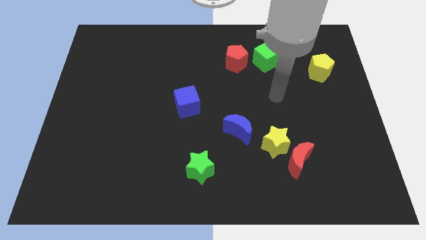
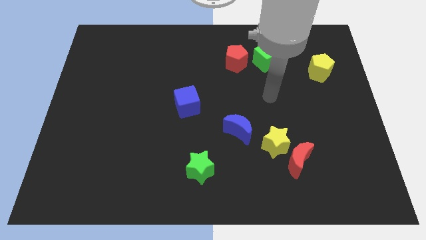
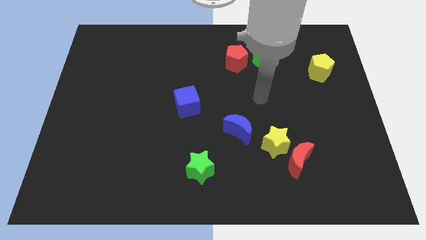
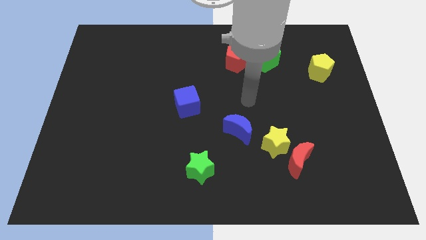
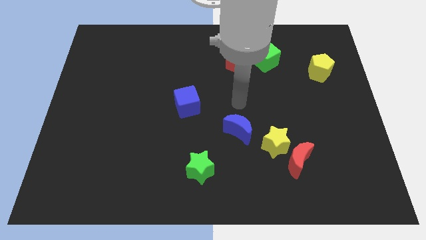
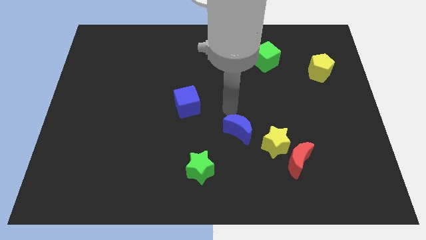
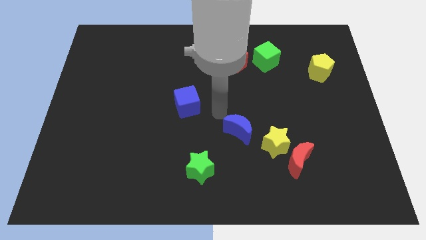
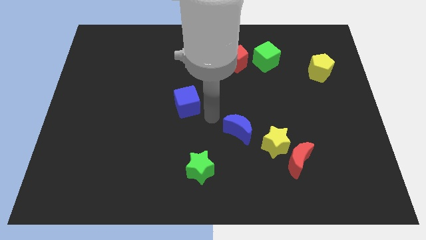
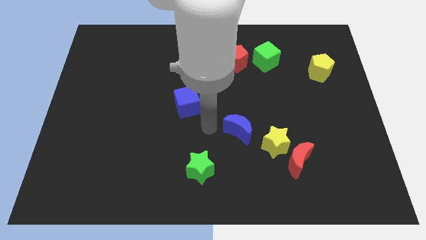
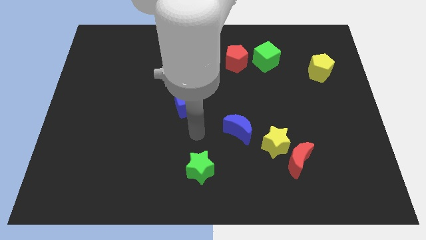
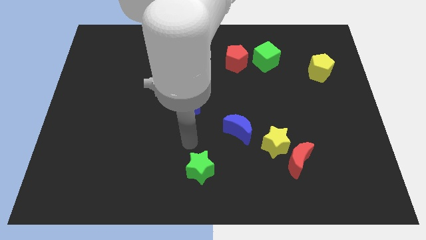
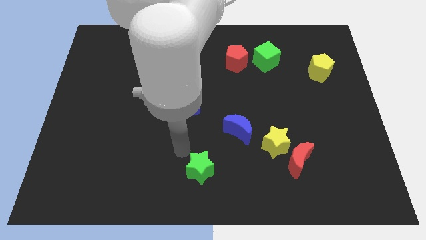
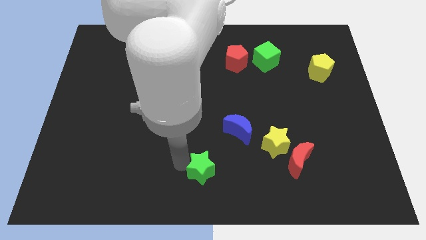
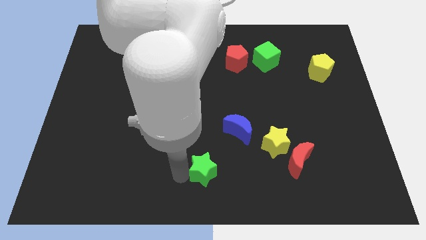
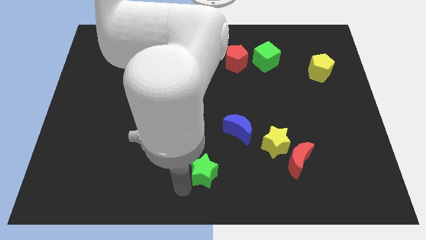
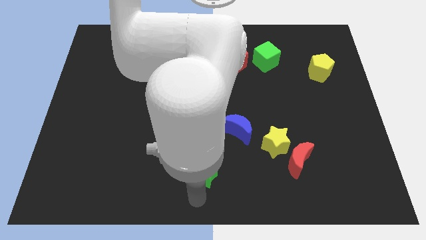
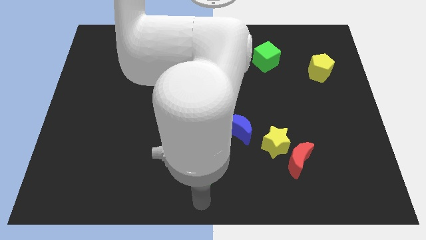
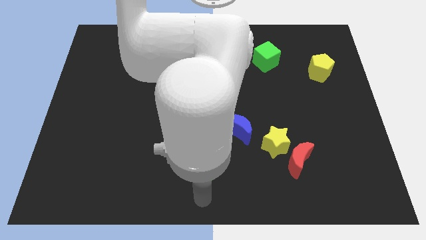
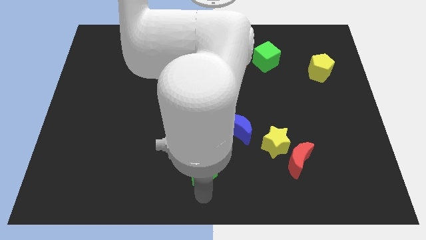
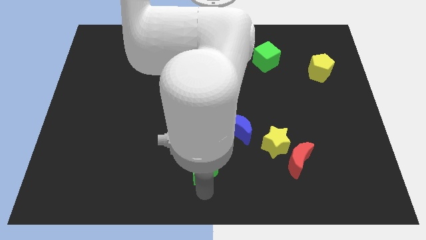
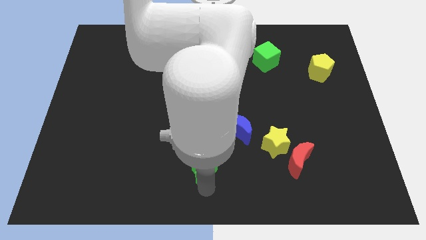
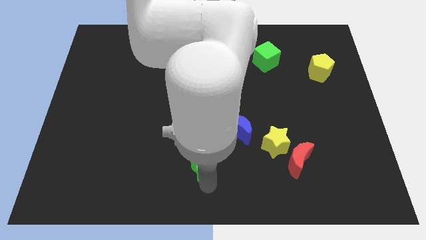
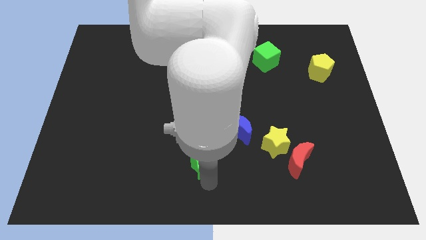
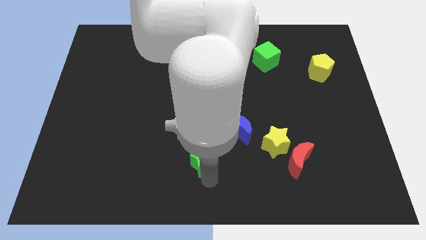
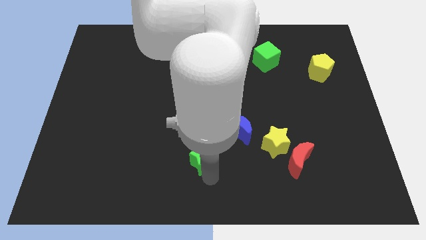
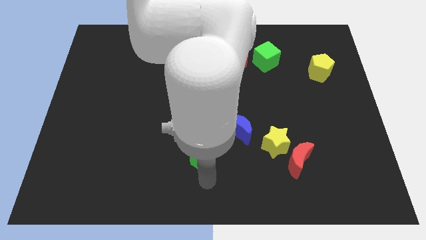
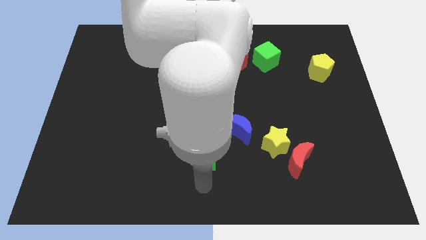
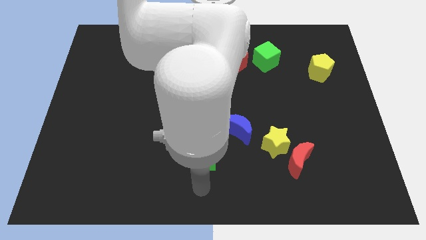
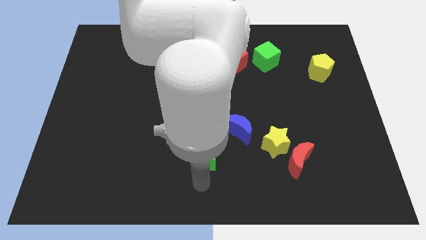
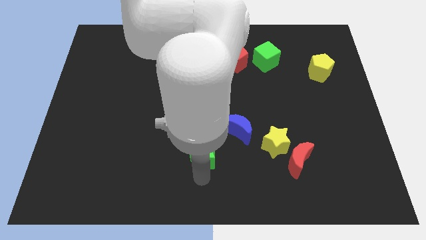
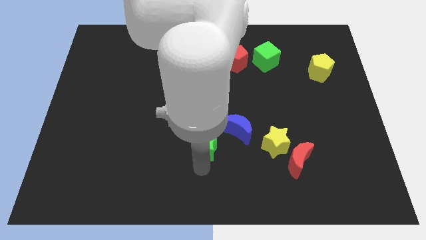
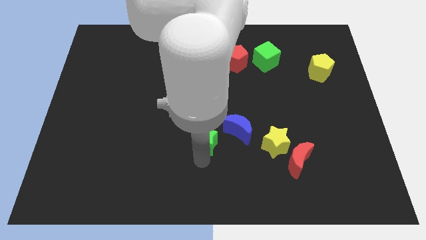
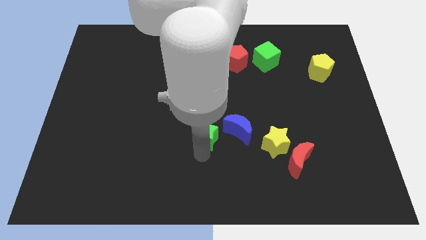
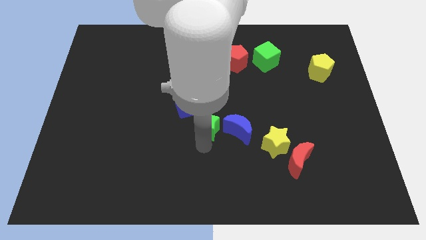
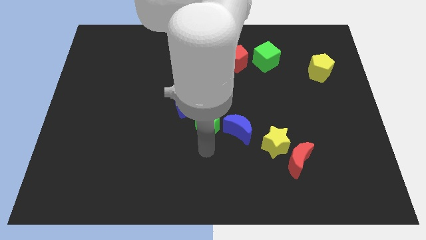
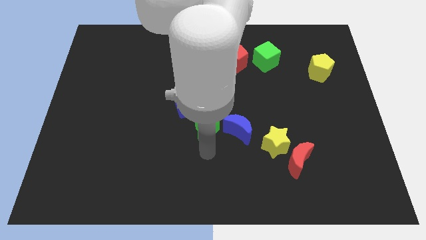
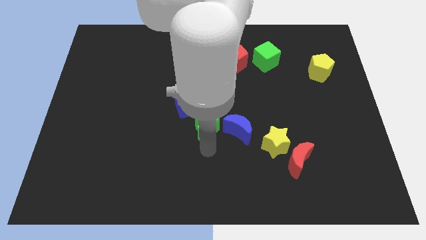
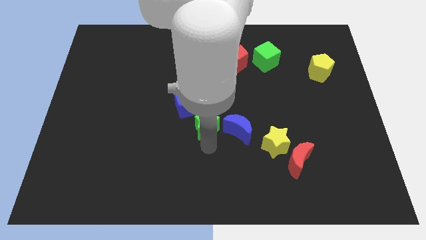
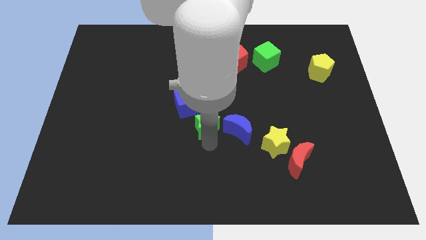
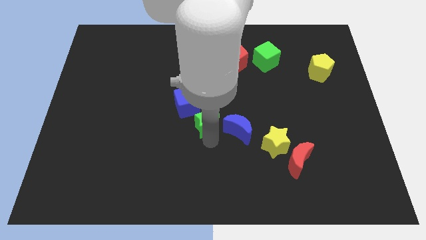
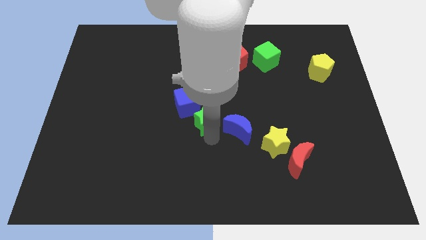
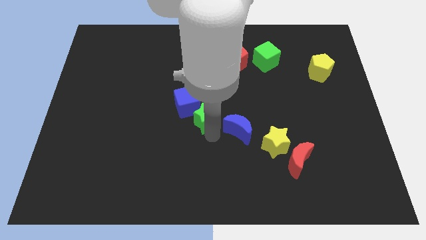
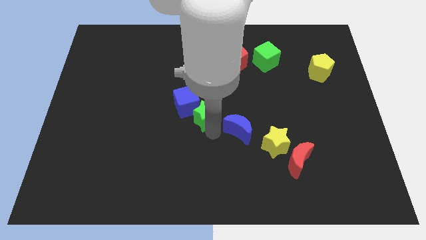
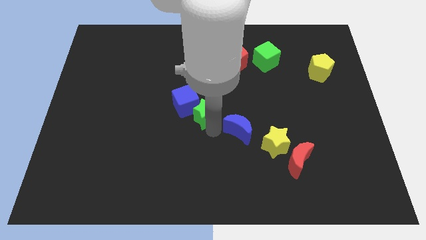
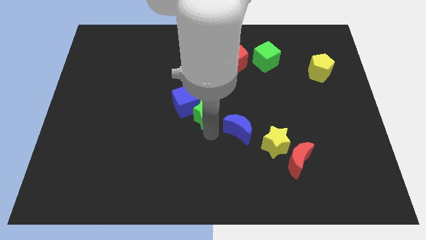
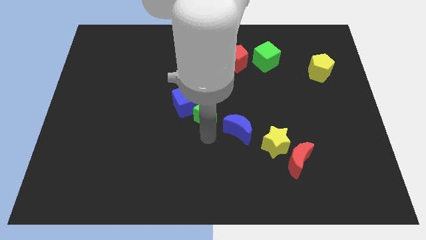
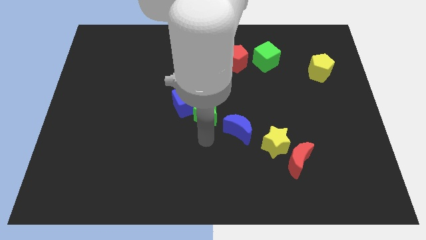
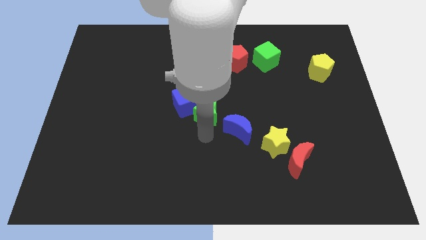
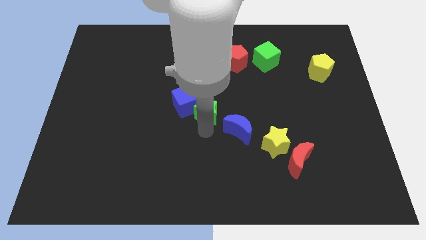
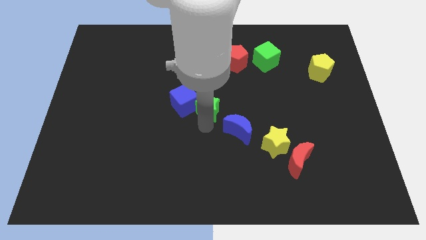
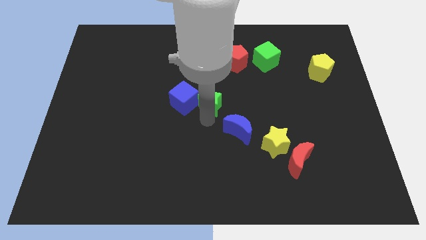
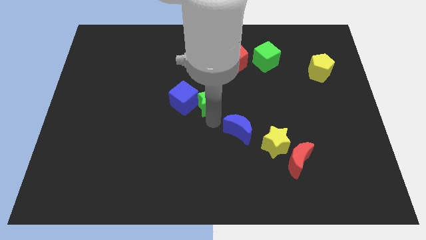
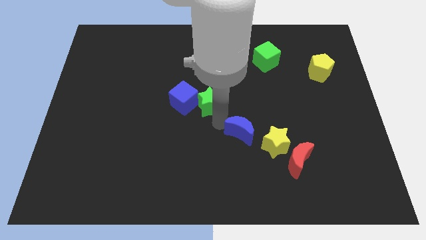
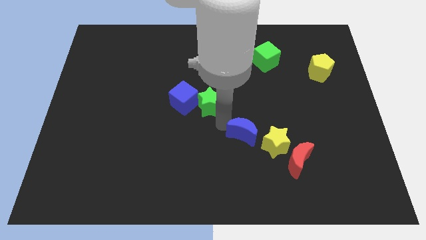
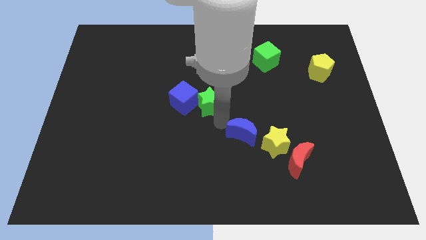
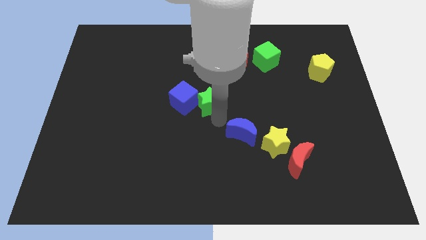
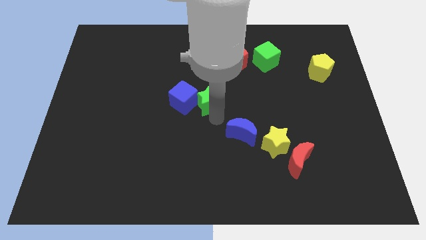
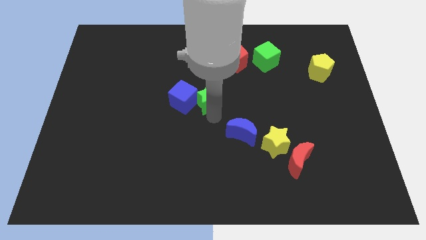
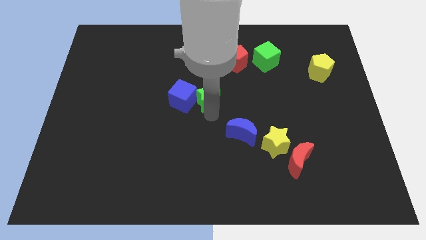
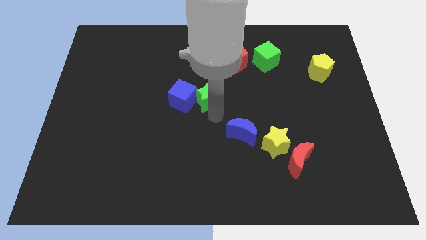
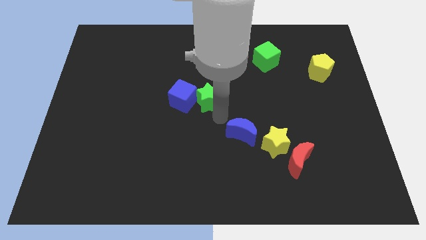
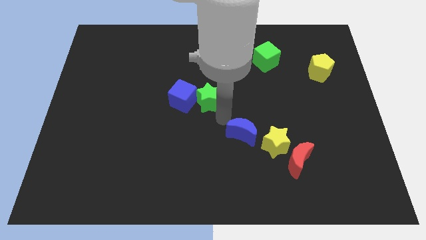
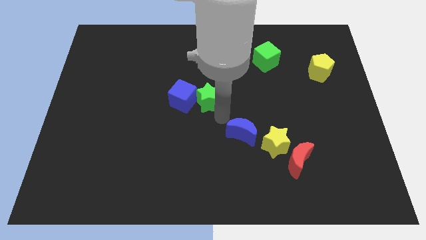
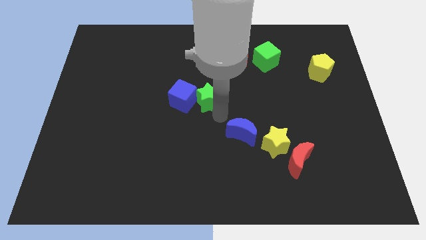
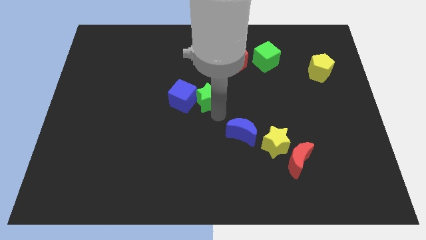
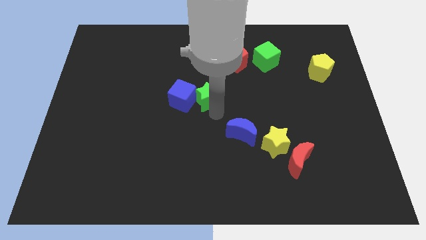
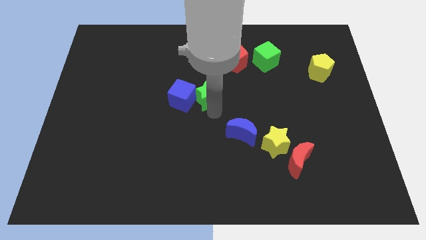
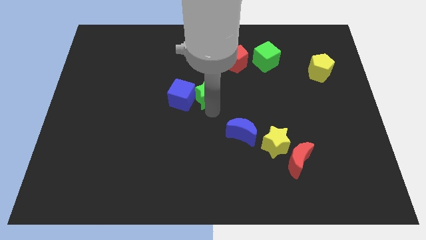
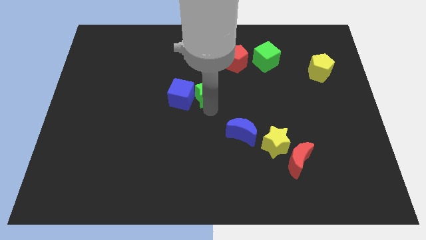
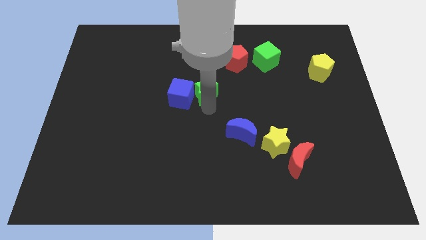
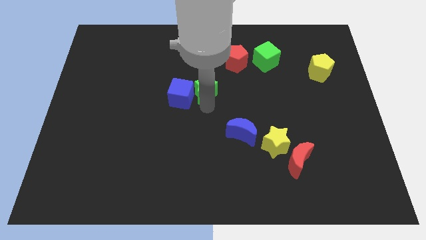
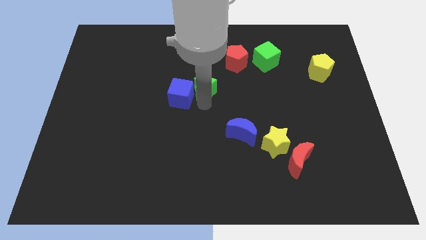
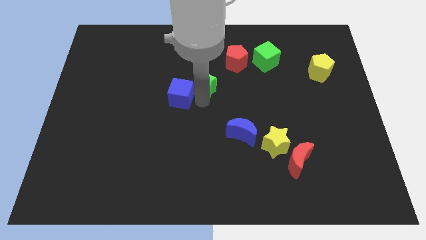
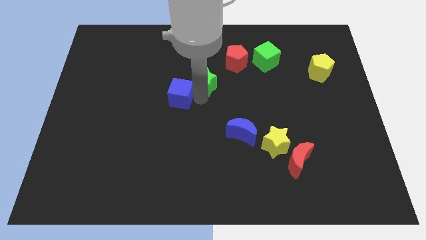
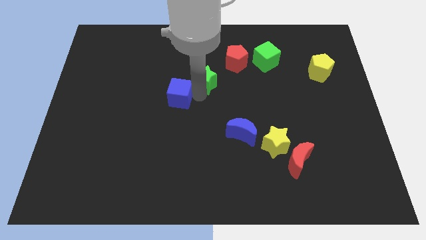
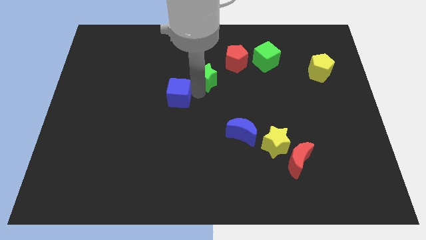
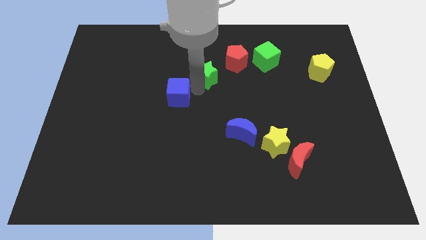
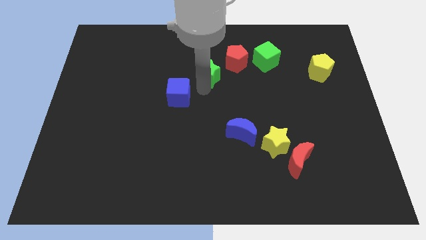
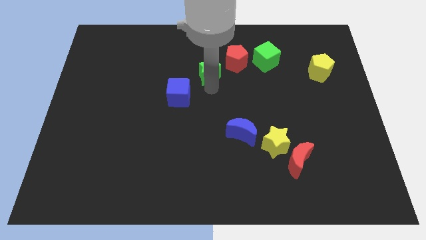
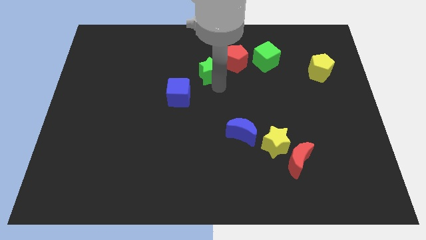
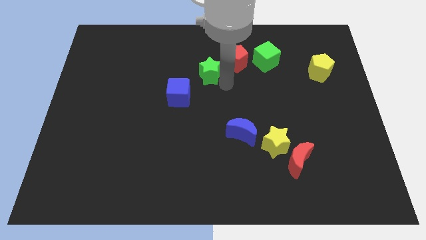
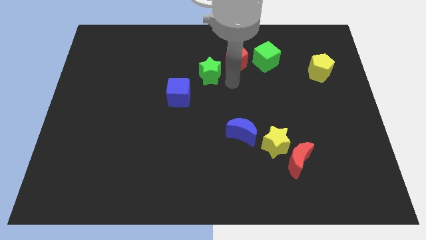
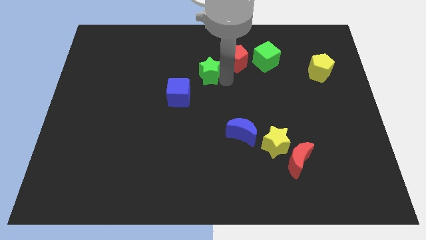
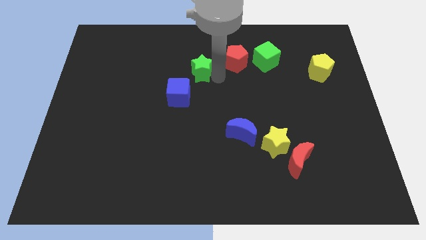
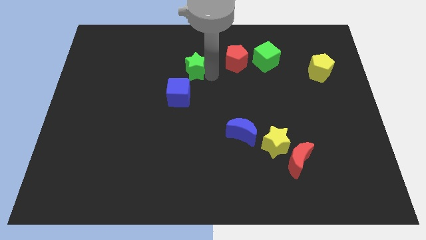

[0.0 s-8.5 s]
slide the green star to the top side of the blue cube

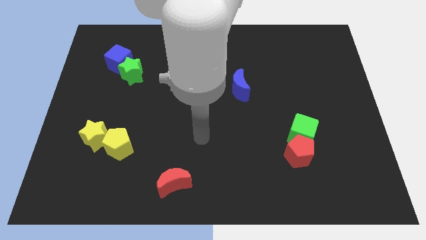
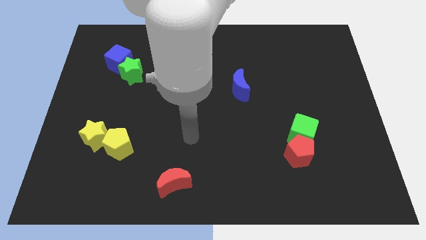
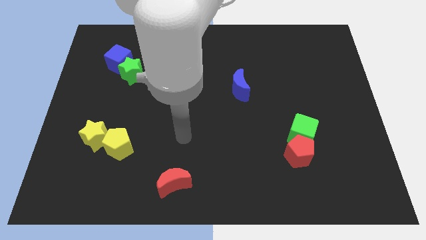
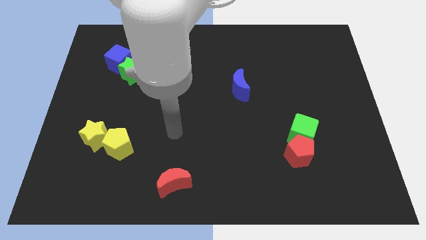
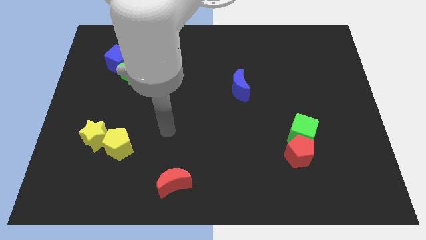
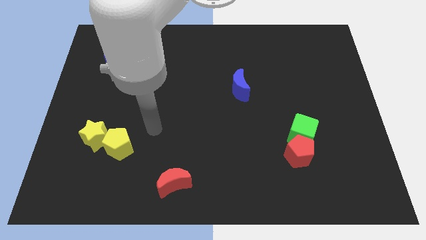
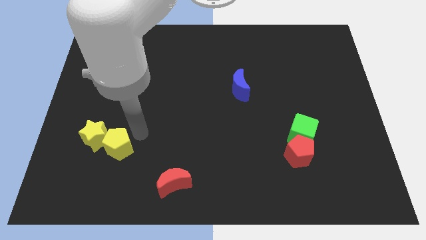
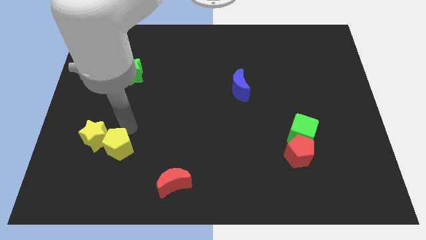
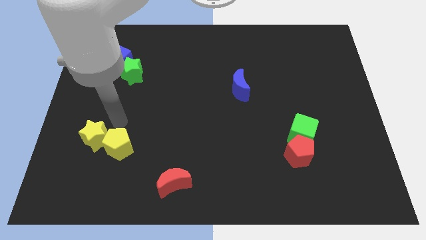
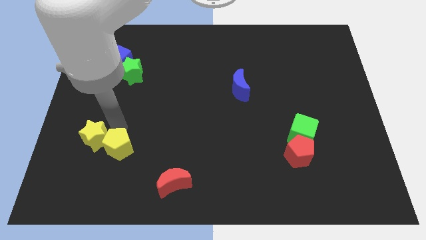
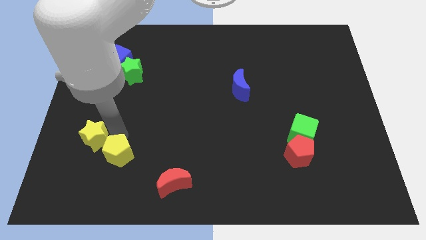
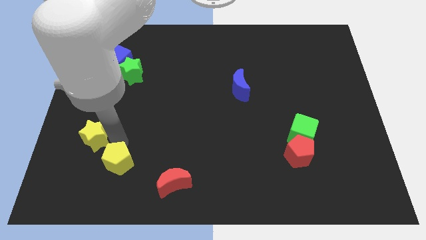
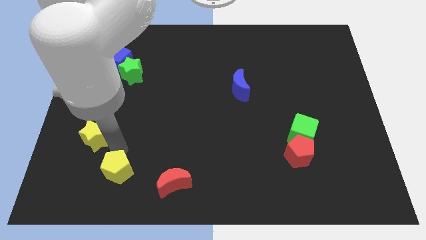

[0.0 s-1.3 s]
push the yellow pentagon left of the red moon
